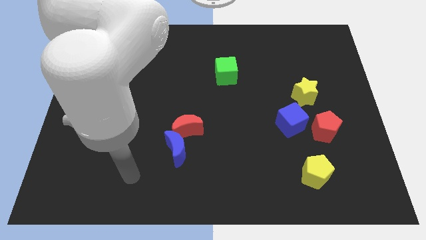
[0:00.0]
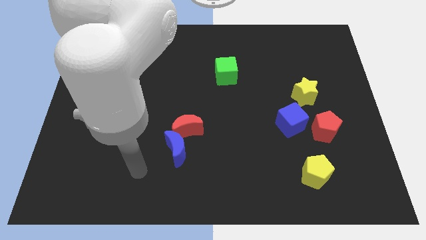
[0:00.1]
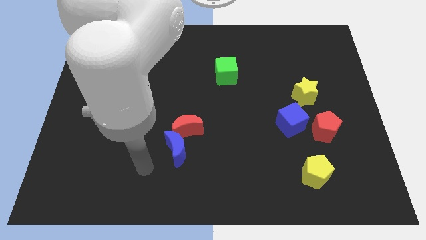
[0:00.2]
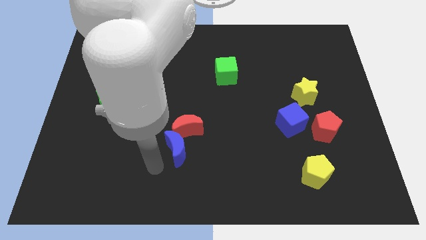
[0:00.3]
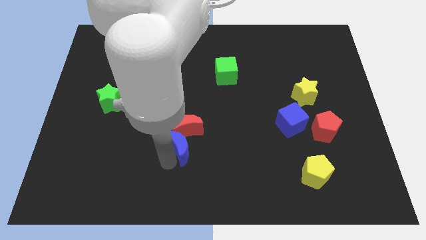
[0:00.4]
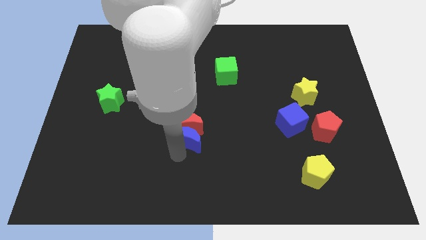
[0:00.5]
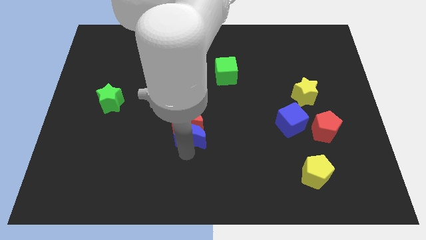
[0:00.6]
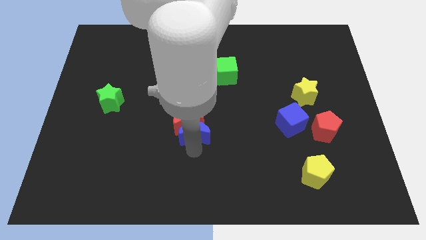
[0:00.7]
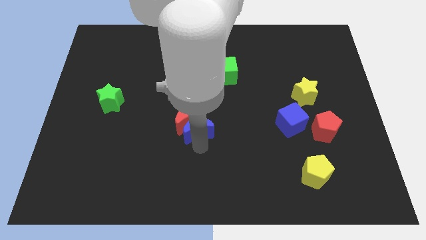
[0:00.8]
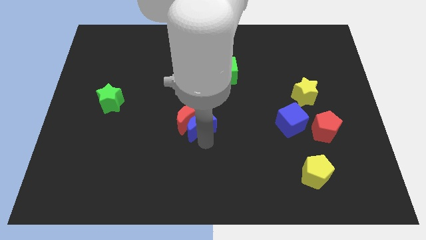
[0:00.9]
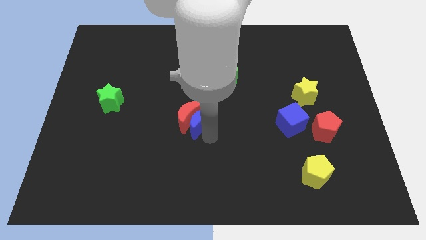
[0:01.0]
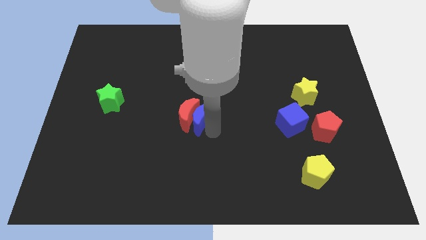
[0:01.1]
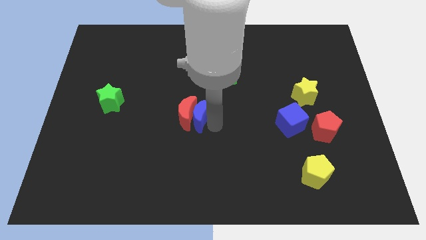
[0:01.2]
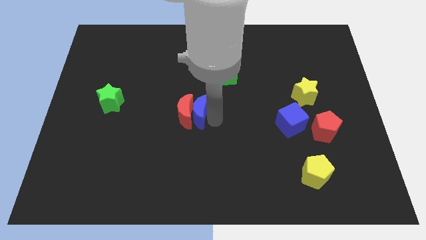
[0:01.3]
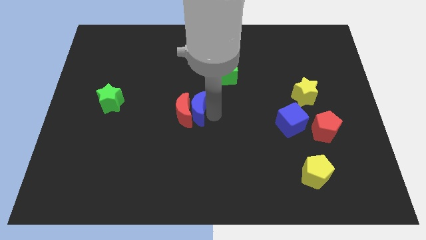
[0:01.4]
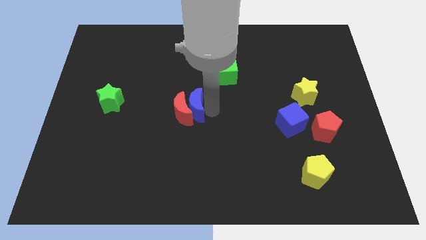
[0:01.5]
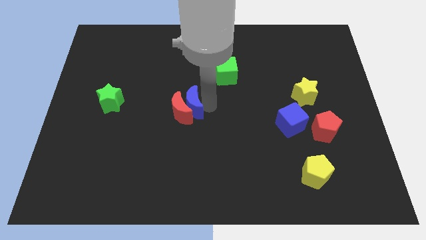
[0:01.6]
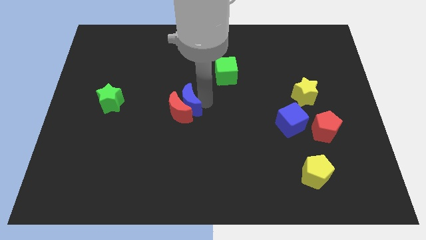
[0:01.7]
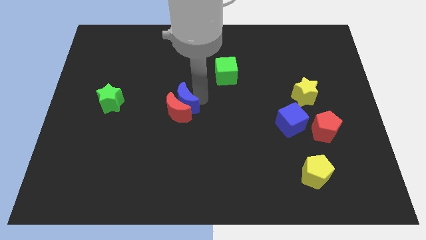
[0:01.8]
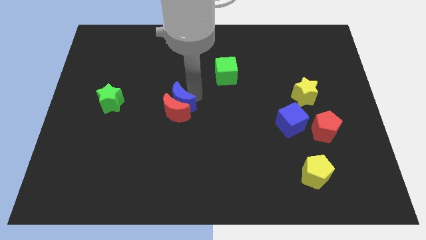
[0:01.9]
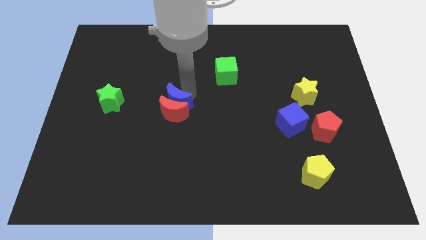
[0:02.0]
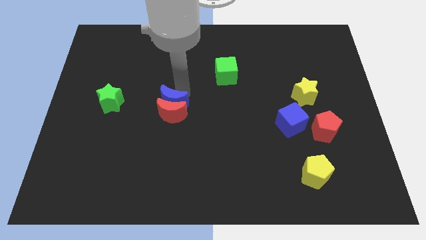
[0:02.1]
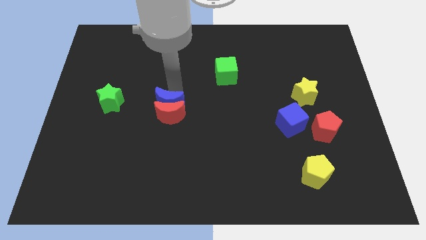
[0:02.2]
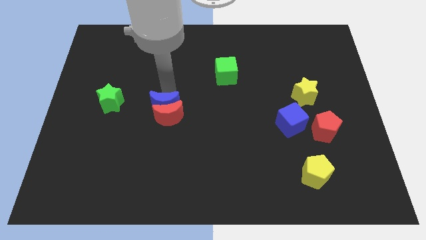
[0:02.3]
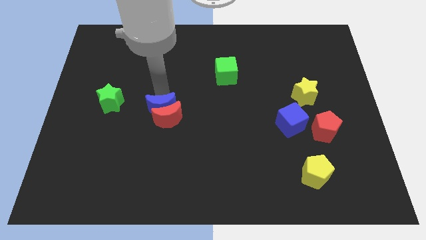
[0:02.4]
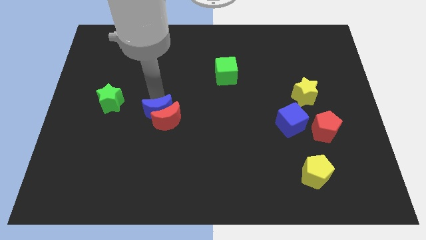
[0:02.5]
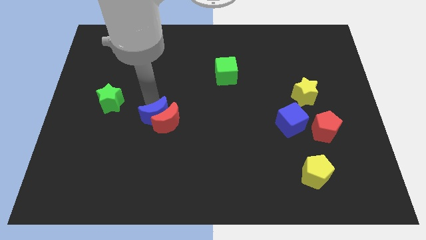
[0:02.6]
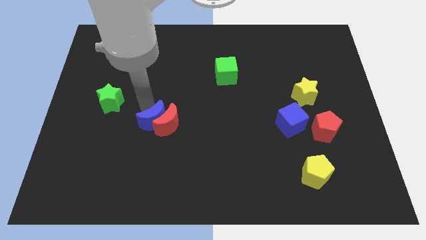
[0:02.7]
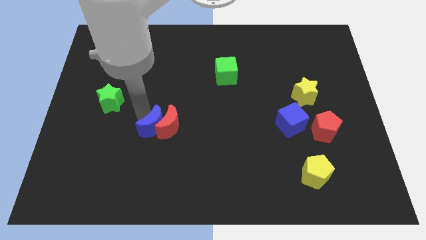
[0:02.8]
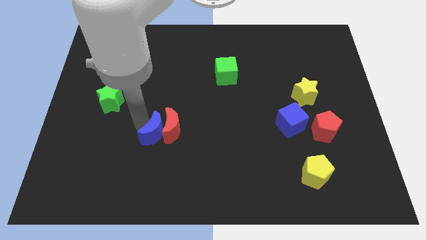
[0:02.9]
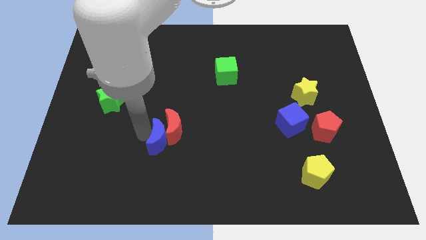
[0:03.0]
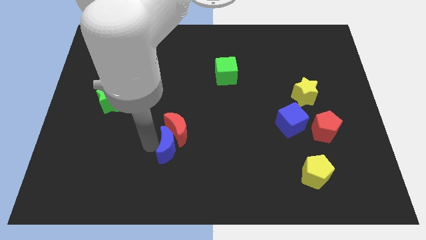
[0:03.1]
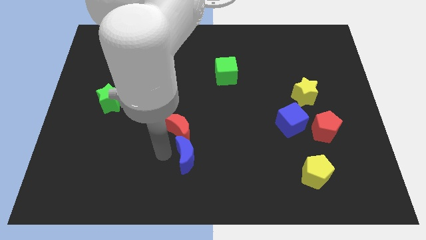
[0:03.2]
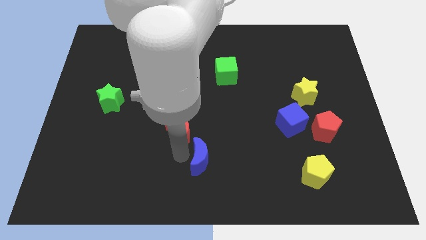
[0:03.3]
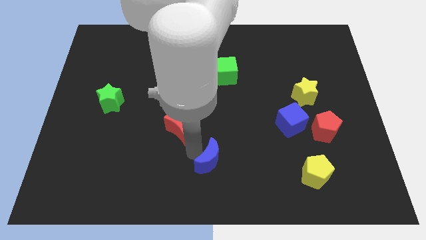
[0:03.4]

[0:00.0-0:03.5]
pull the red moon apart from the blue moon

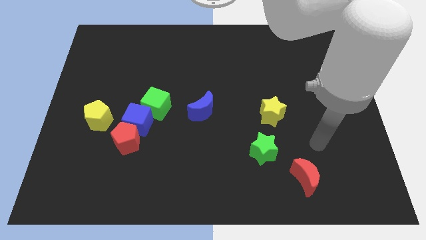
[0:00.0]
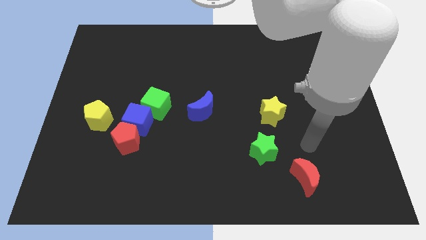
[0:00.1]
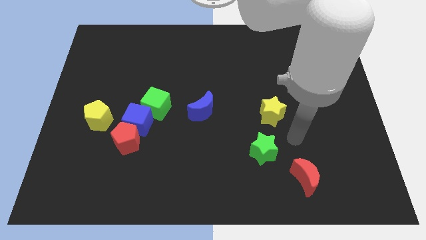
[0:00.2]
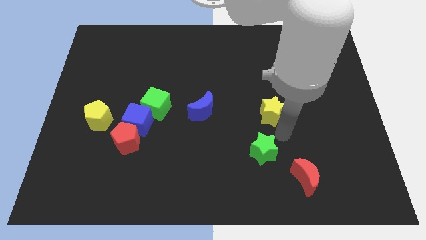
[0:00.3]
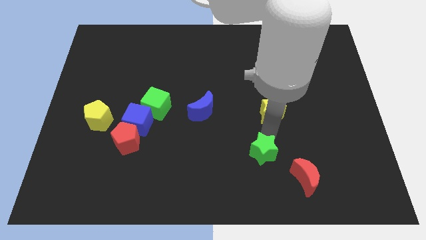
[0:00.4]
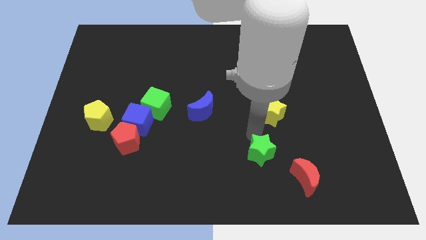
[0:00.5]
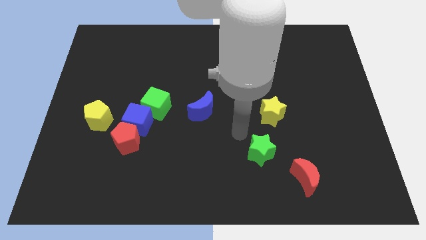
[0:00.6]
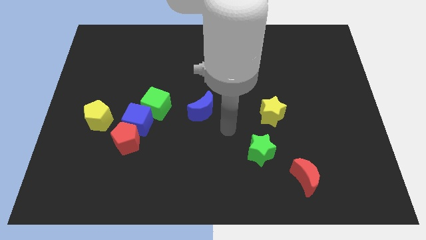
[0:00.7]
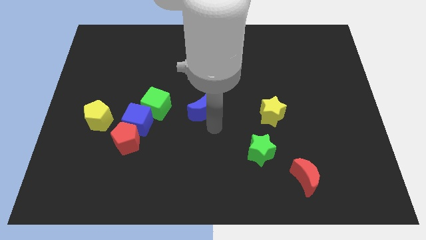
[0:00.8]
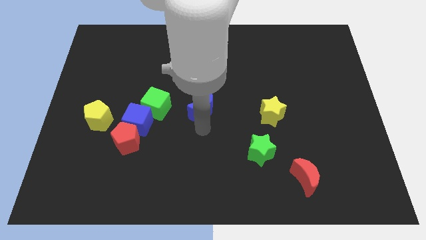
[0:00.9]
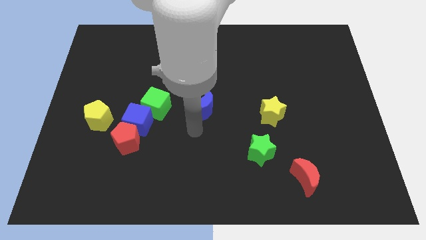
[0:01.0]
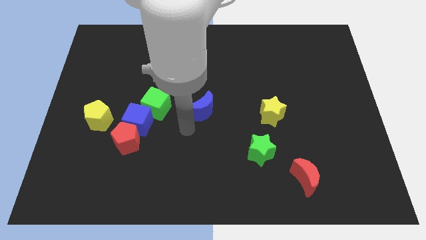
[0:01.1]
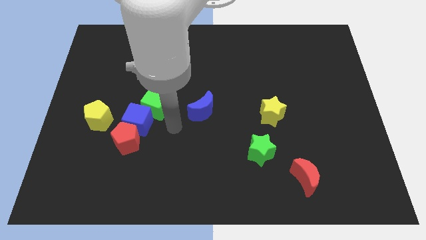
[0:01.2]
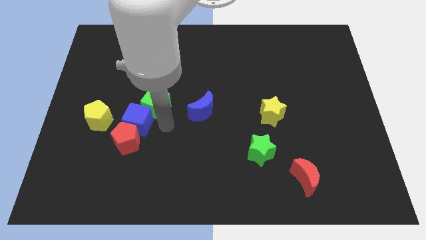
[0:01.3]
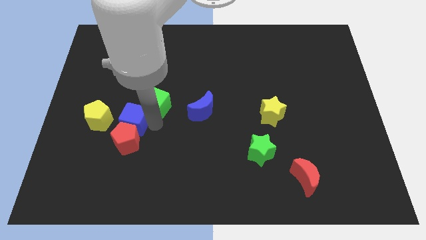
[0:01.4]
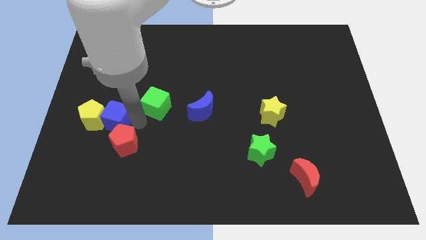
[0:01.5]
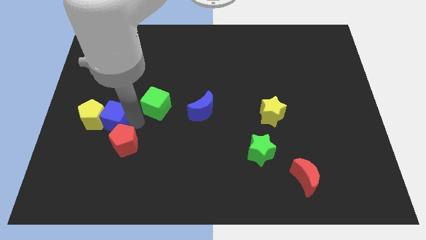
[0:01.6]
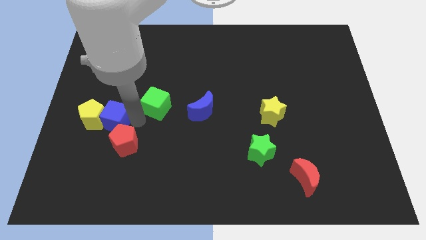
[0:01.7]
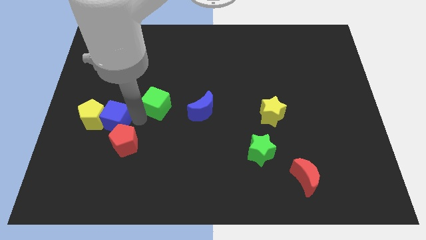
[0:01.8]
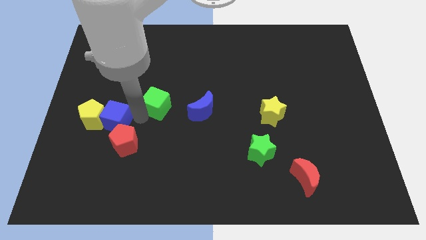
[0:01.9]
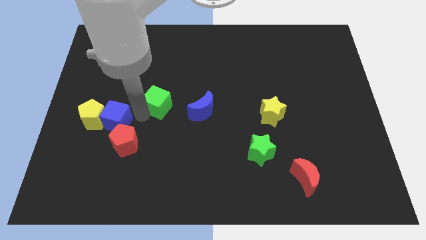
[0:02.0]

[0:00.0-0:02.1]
separate the green cube from the blue cube

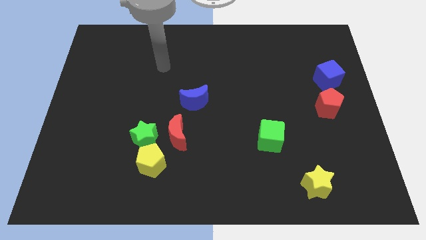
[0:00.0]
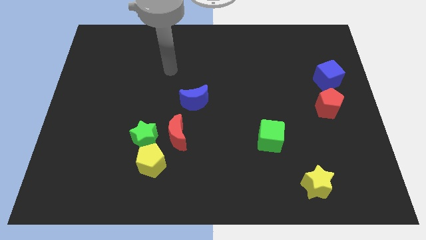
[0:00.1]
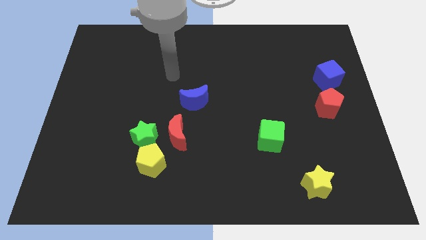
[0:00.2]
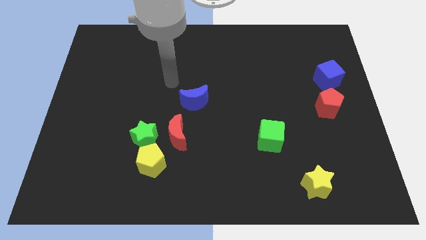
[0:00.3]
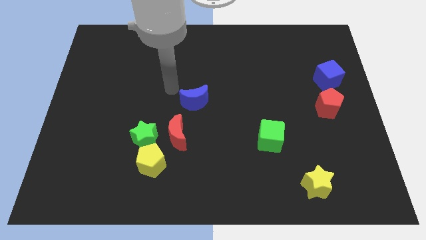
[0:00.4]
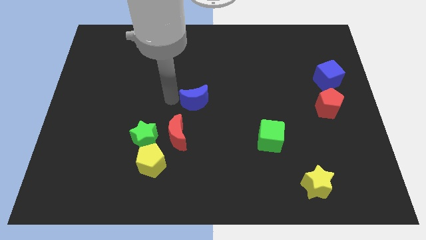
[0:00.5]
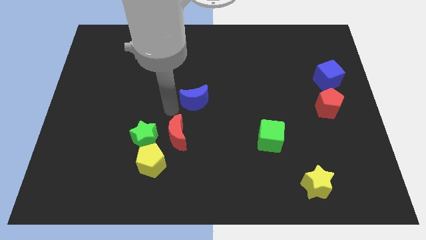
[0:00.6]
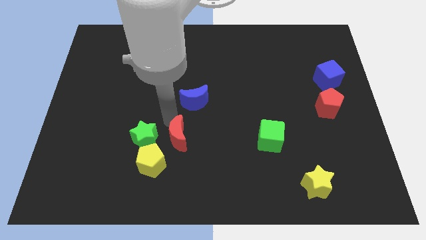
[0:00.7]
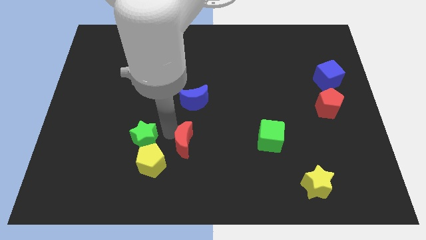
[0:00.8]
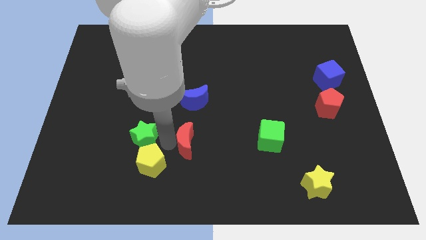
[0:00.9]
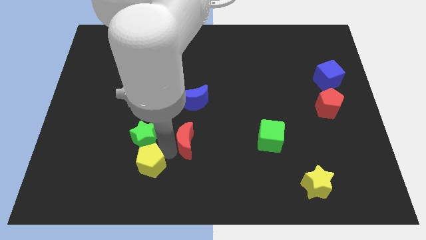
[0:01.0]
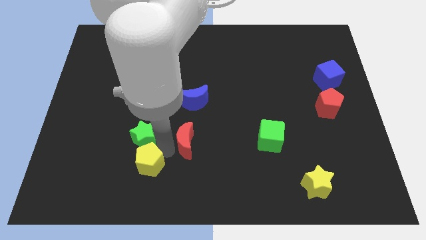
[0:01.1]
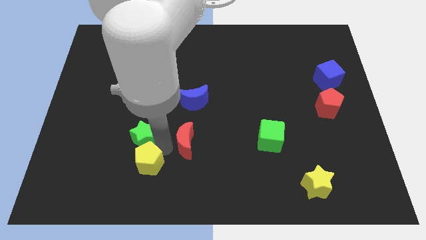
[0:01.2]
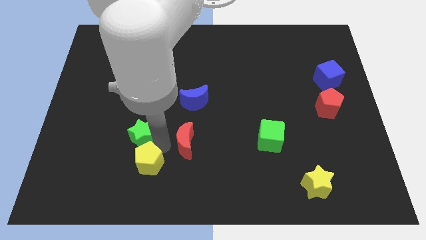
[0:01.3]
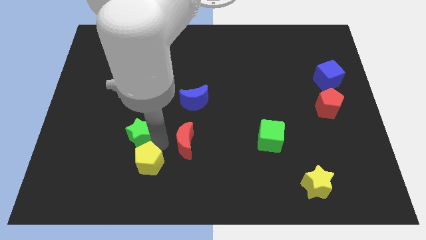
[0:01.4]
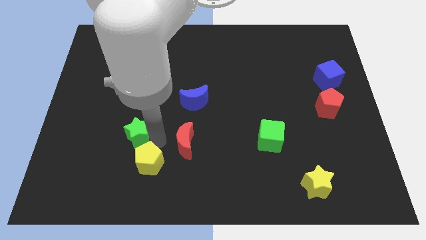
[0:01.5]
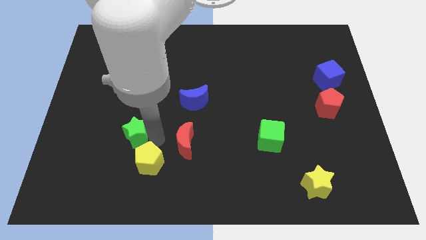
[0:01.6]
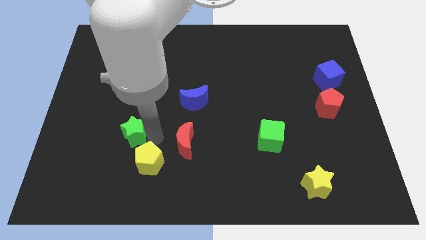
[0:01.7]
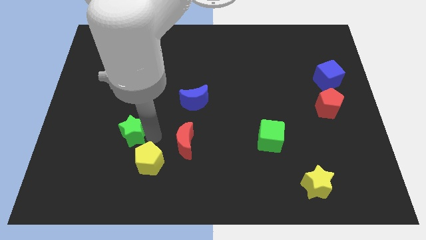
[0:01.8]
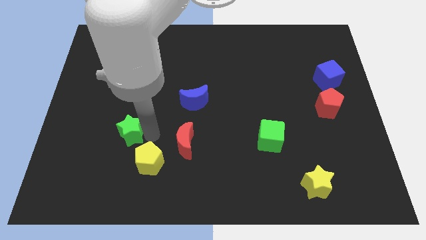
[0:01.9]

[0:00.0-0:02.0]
move the green star away from the yellow pentagon and red moon

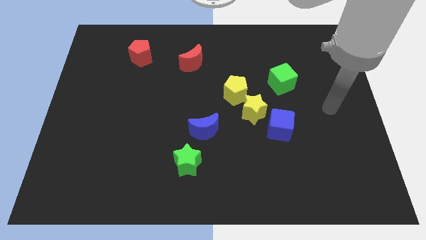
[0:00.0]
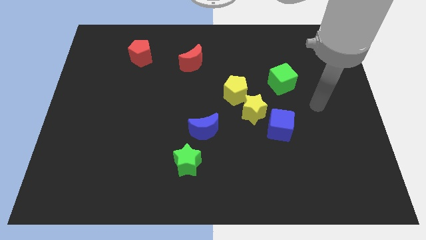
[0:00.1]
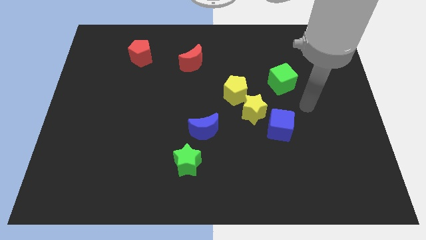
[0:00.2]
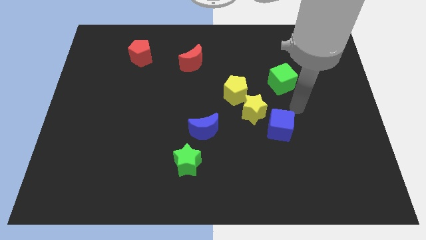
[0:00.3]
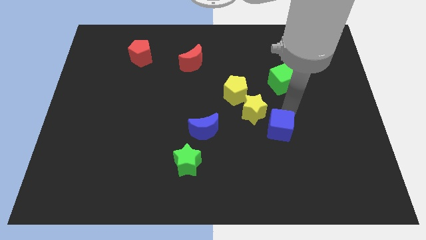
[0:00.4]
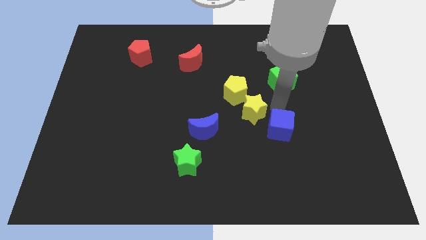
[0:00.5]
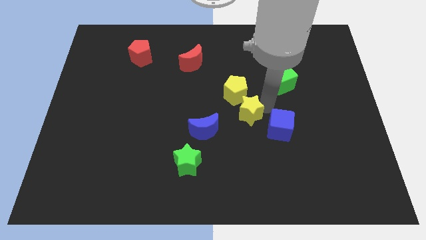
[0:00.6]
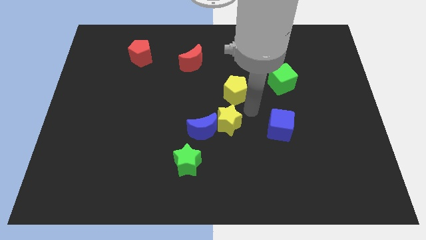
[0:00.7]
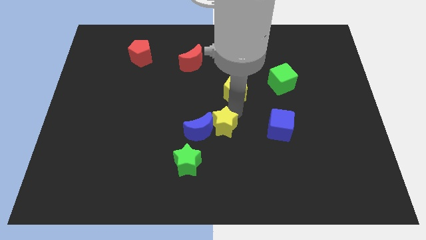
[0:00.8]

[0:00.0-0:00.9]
move the yellow pentagon away from the yellow star

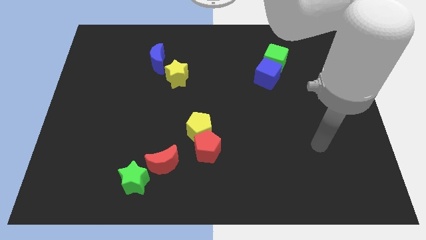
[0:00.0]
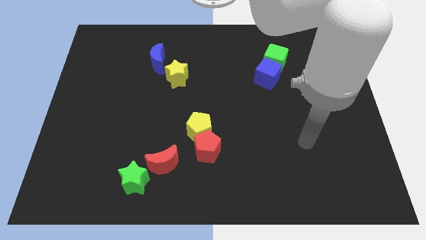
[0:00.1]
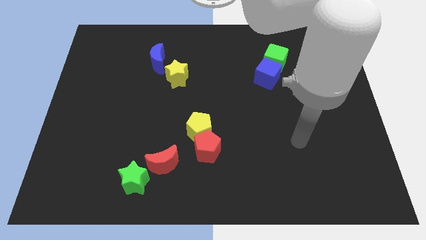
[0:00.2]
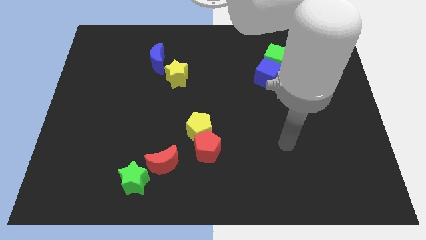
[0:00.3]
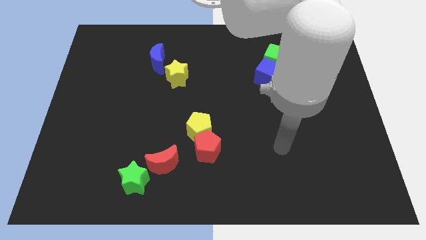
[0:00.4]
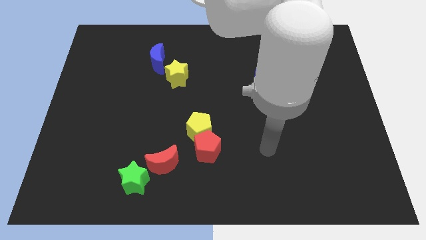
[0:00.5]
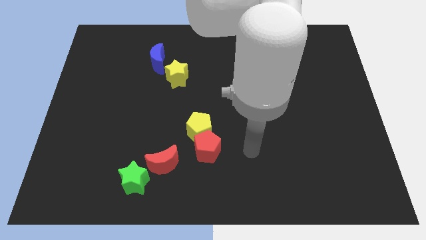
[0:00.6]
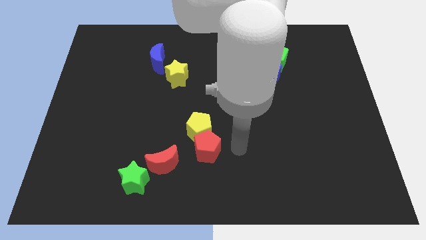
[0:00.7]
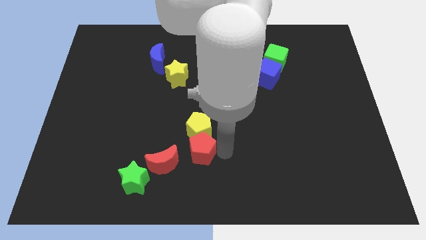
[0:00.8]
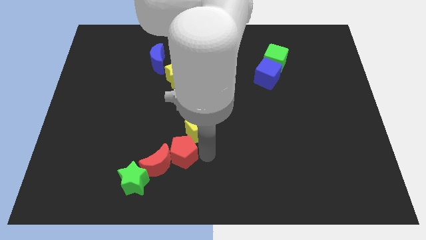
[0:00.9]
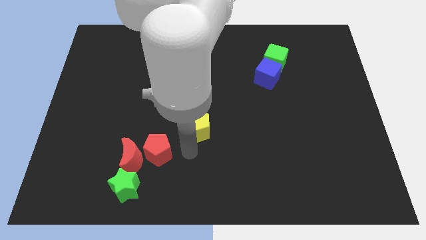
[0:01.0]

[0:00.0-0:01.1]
move the yellow pentagon away from the red pentagon
